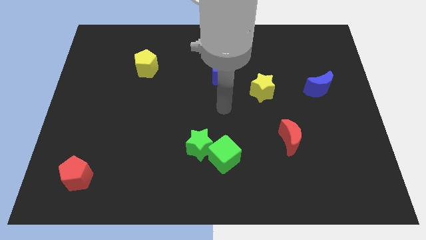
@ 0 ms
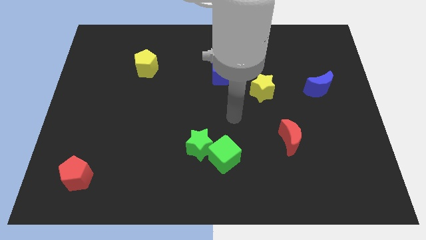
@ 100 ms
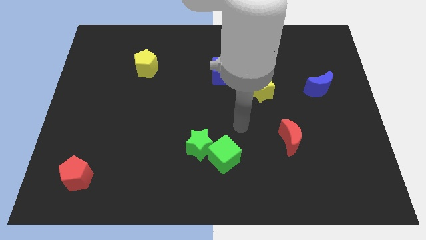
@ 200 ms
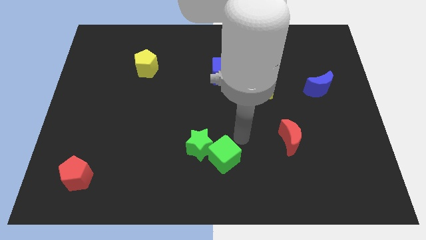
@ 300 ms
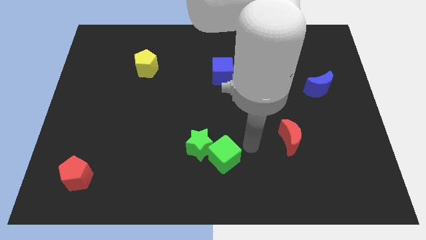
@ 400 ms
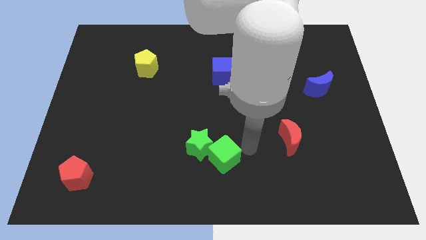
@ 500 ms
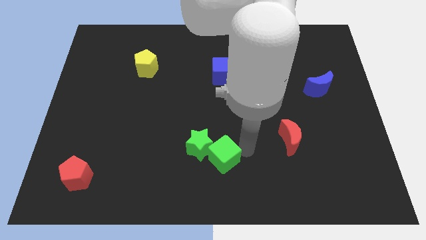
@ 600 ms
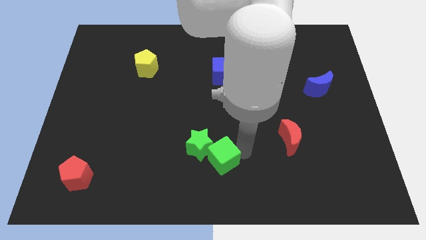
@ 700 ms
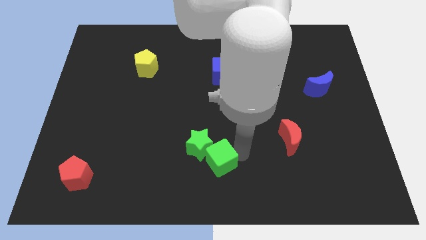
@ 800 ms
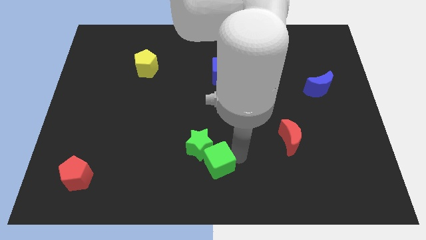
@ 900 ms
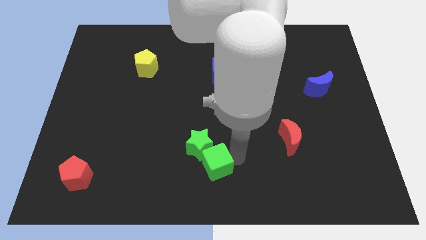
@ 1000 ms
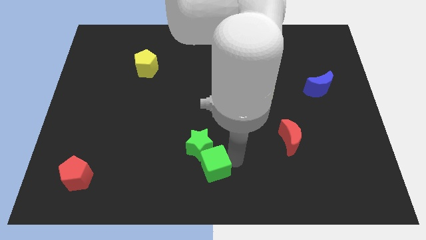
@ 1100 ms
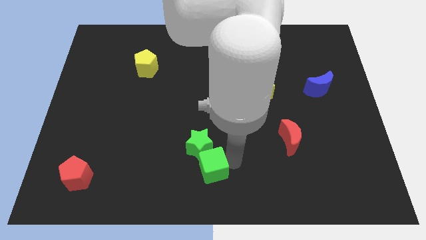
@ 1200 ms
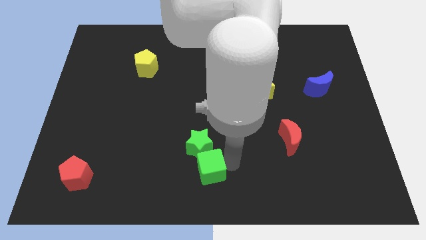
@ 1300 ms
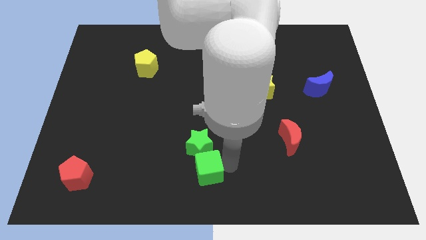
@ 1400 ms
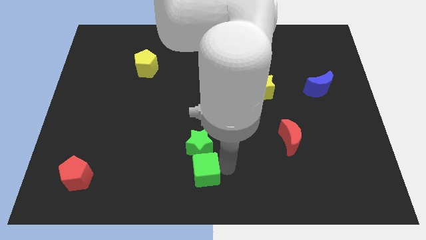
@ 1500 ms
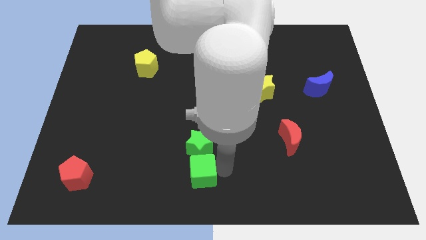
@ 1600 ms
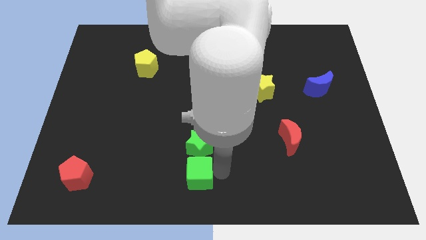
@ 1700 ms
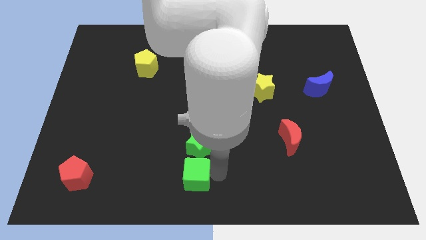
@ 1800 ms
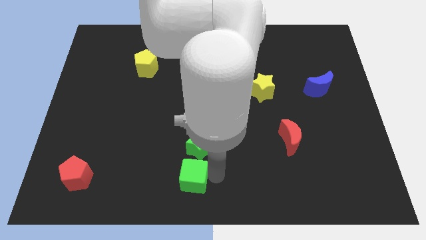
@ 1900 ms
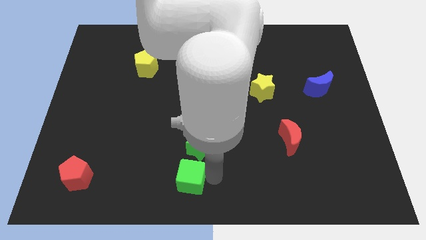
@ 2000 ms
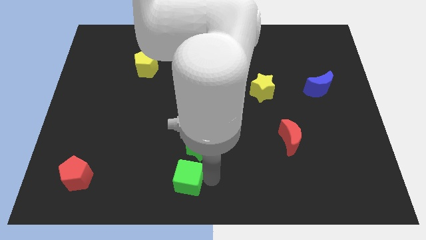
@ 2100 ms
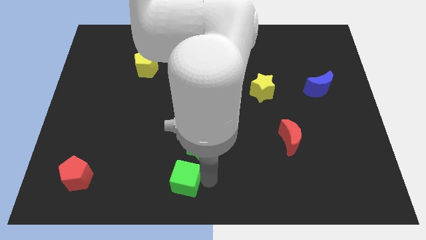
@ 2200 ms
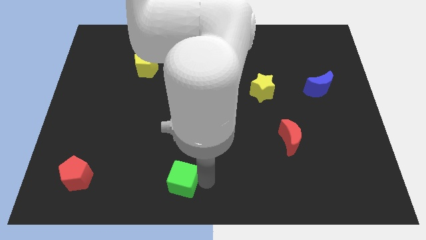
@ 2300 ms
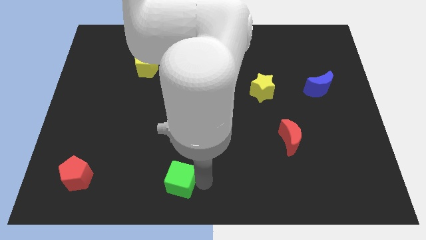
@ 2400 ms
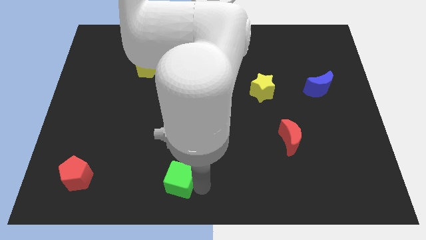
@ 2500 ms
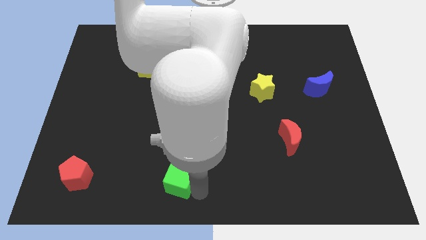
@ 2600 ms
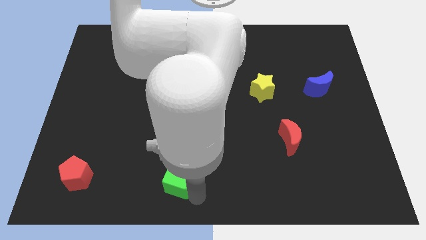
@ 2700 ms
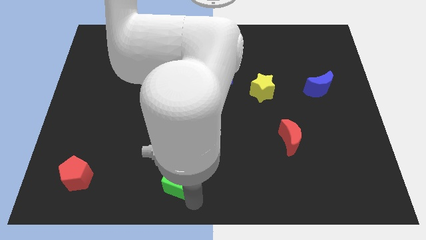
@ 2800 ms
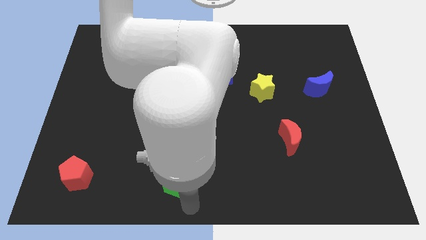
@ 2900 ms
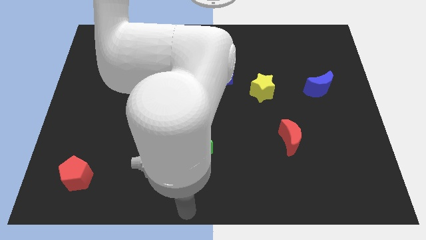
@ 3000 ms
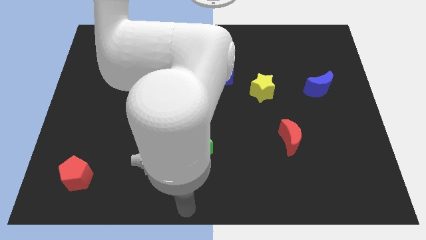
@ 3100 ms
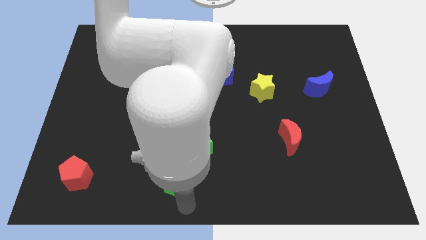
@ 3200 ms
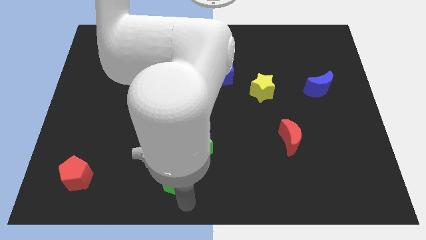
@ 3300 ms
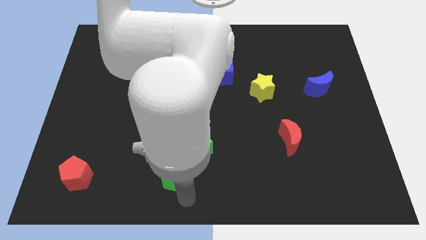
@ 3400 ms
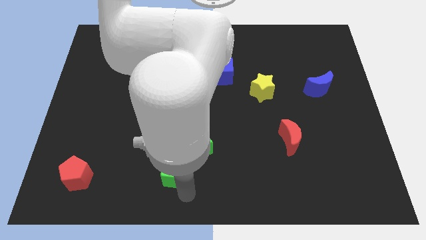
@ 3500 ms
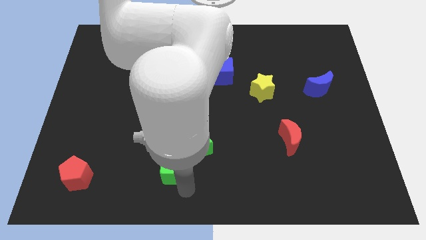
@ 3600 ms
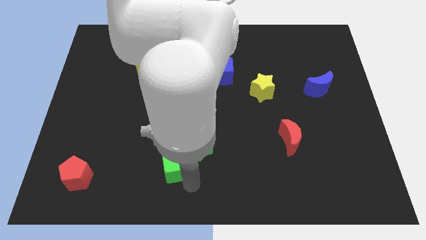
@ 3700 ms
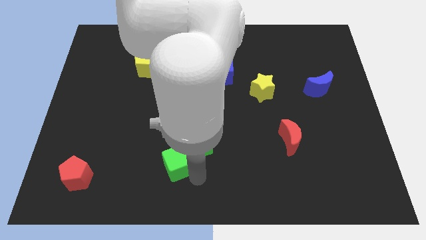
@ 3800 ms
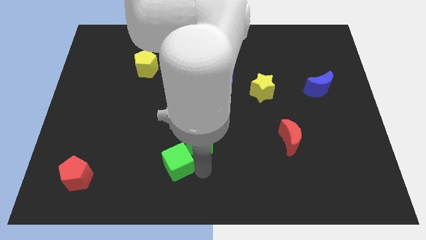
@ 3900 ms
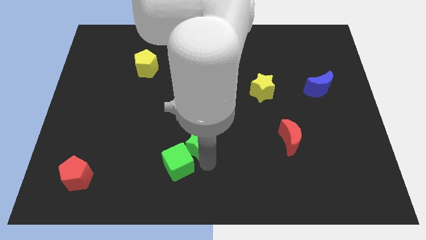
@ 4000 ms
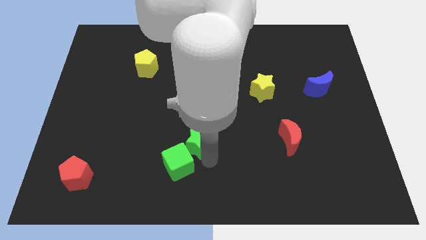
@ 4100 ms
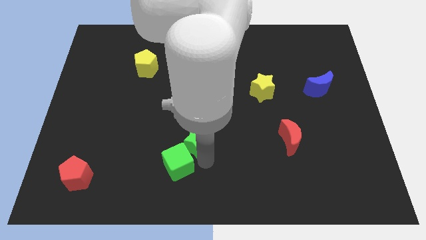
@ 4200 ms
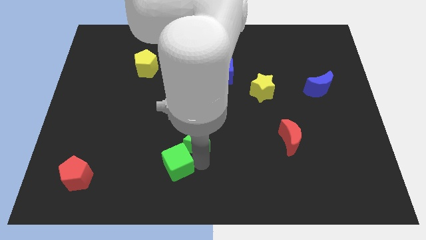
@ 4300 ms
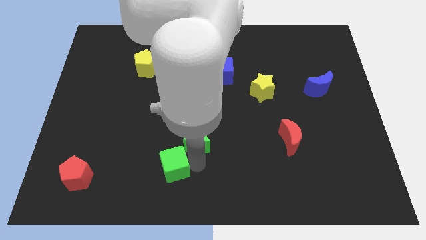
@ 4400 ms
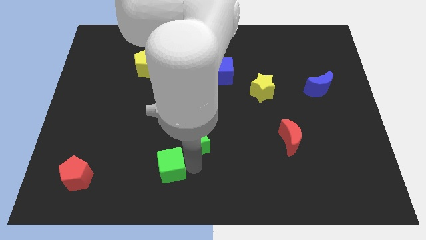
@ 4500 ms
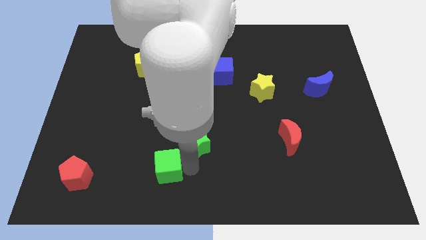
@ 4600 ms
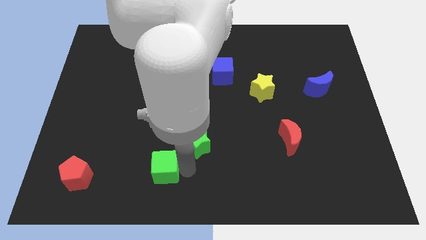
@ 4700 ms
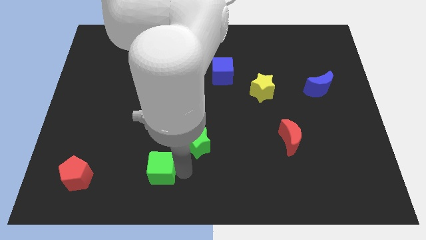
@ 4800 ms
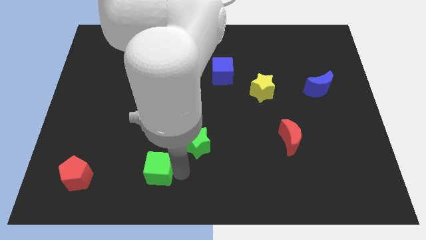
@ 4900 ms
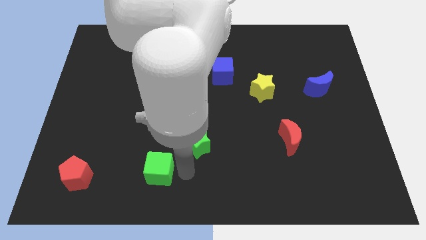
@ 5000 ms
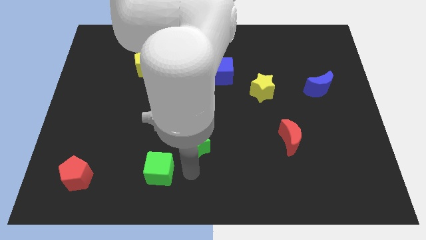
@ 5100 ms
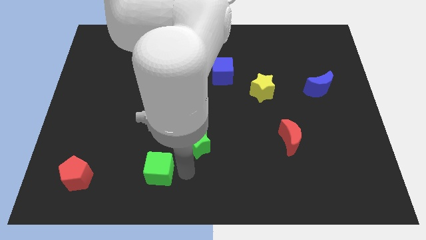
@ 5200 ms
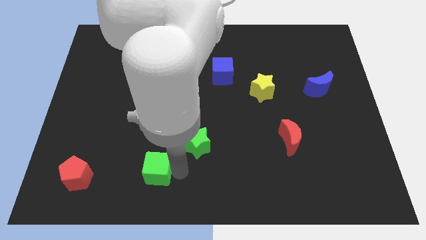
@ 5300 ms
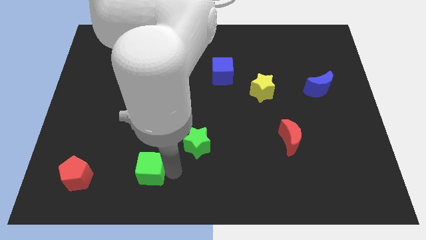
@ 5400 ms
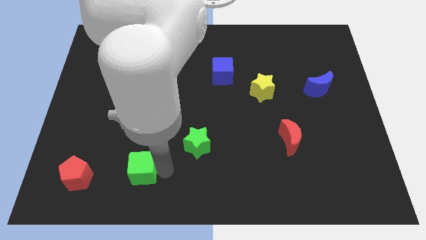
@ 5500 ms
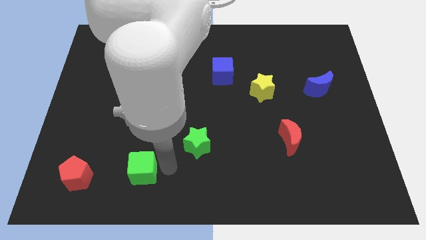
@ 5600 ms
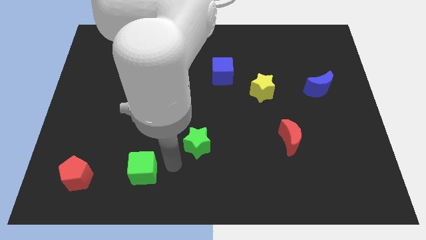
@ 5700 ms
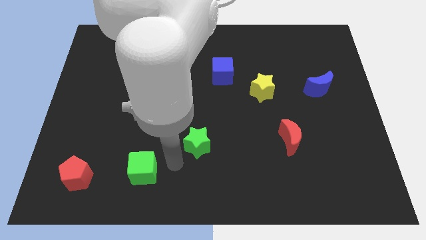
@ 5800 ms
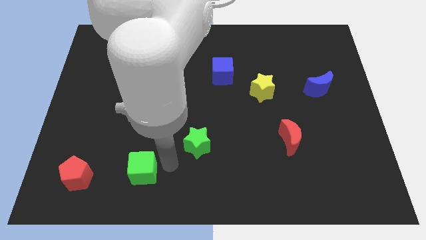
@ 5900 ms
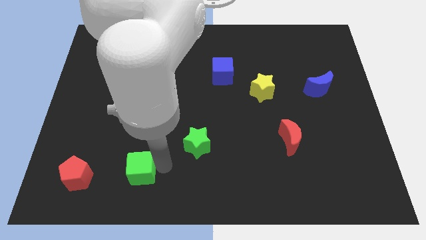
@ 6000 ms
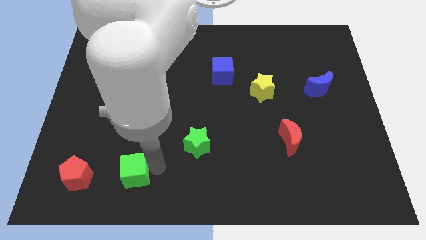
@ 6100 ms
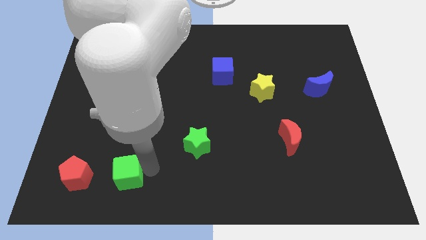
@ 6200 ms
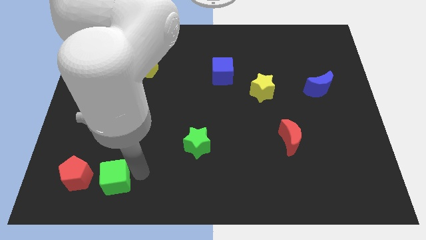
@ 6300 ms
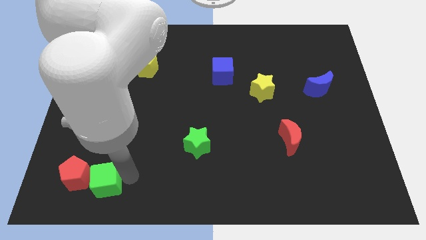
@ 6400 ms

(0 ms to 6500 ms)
slide the green cube to the red pentagon
